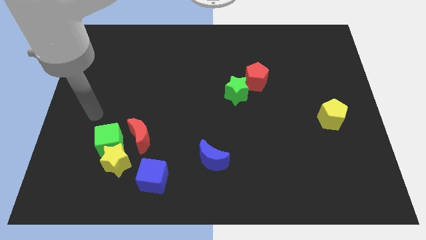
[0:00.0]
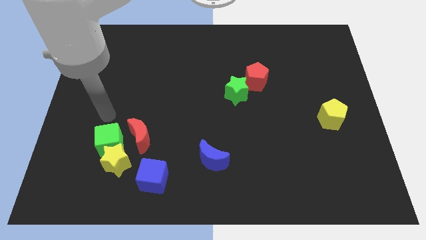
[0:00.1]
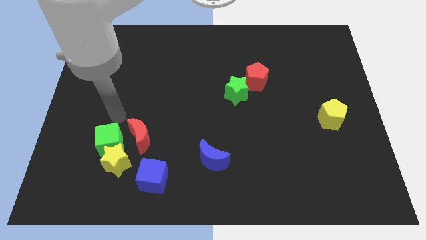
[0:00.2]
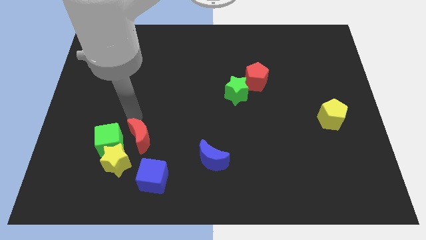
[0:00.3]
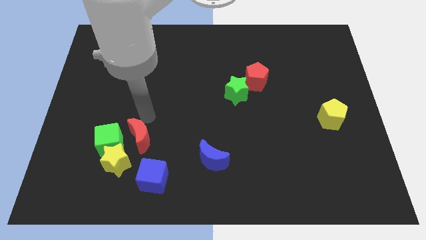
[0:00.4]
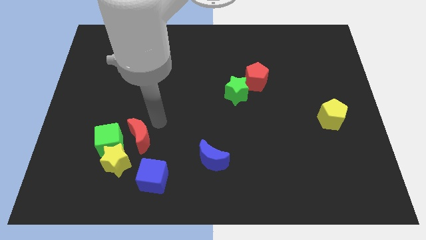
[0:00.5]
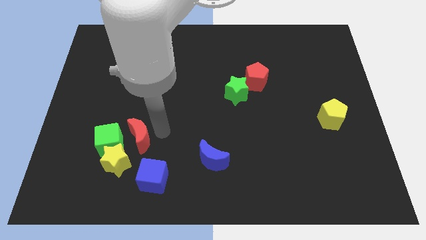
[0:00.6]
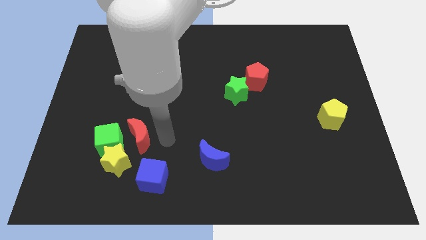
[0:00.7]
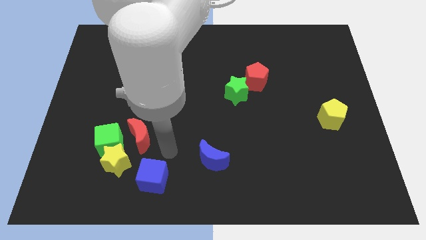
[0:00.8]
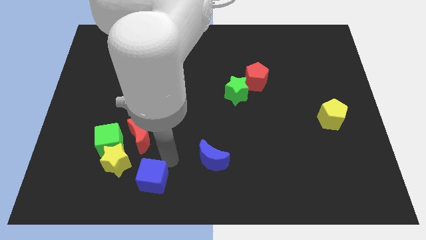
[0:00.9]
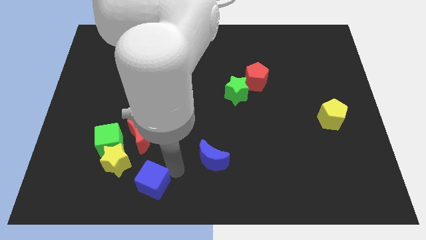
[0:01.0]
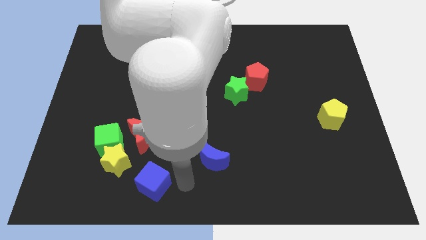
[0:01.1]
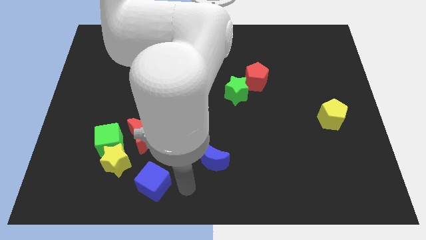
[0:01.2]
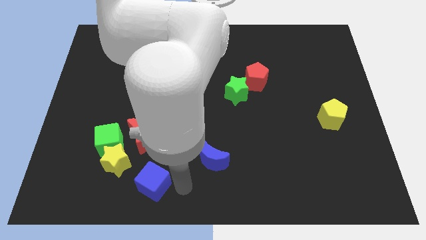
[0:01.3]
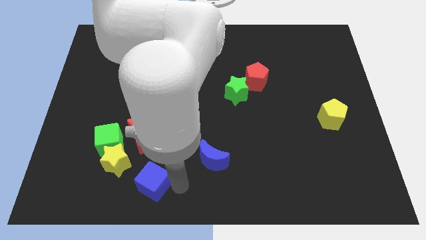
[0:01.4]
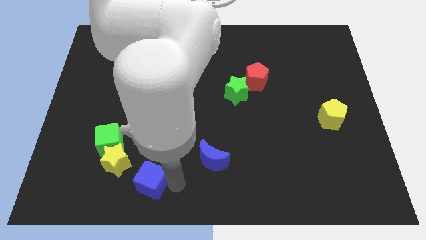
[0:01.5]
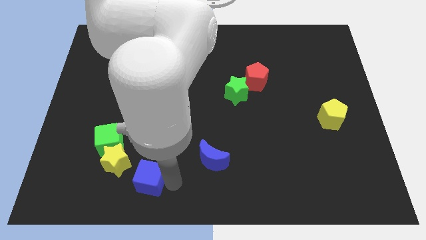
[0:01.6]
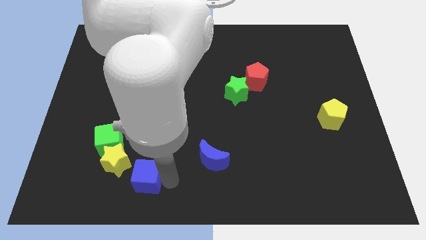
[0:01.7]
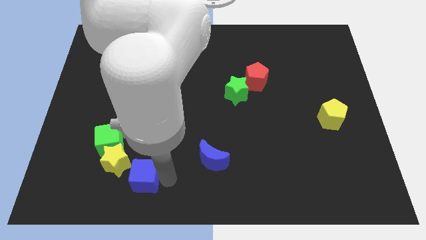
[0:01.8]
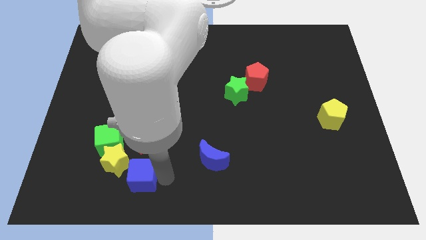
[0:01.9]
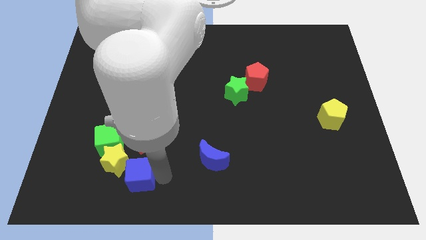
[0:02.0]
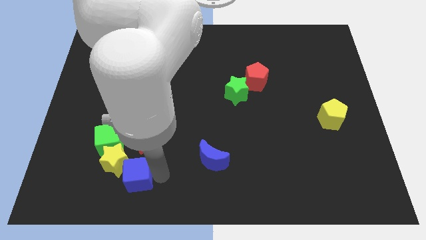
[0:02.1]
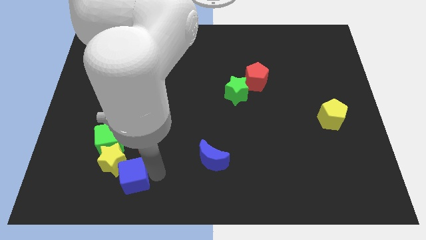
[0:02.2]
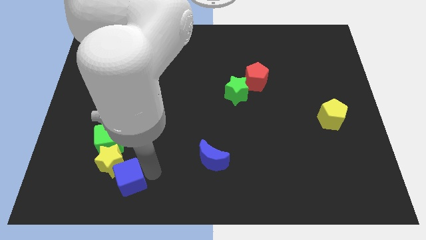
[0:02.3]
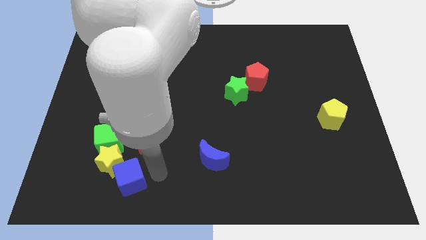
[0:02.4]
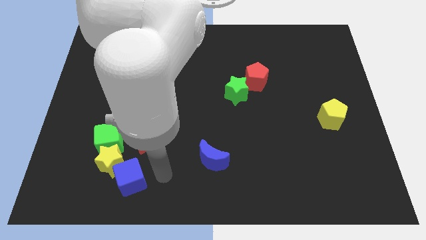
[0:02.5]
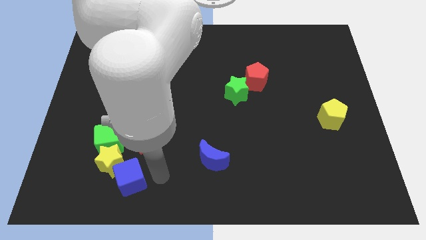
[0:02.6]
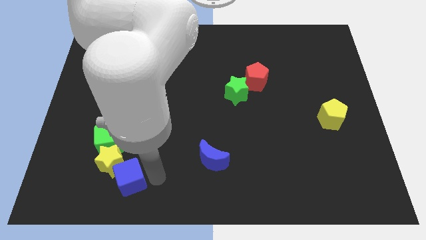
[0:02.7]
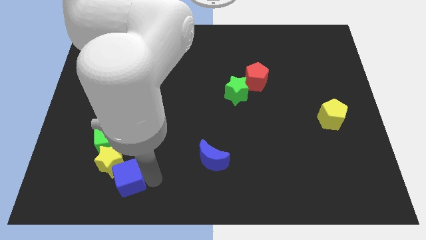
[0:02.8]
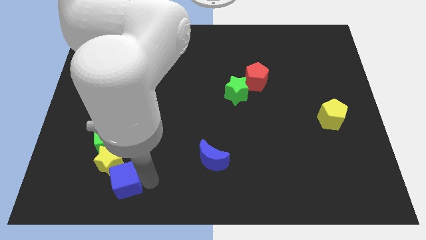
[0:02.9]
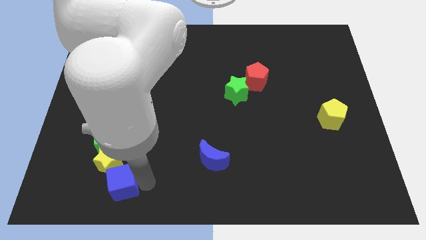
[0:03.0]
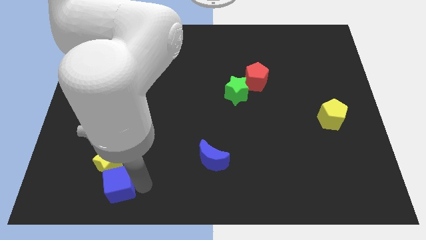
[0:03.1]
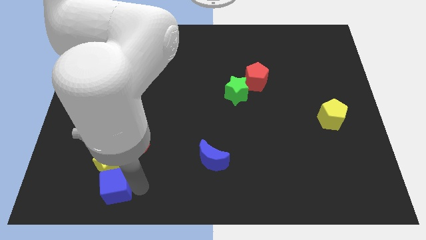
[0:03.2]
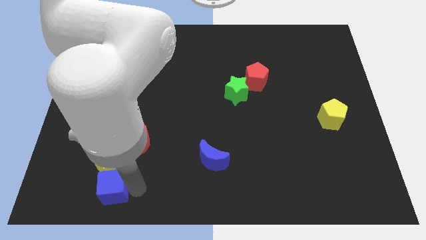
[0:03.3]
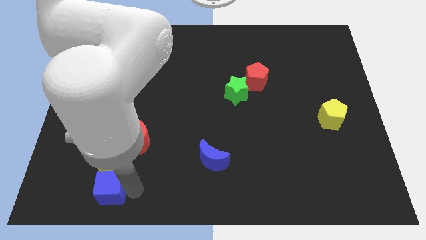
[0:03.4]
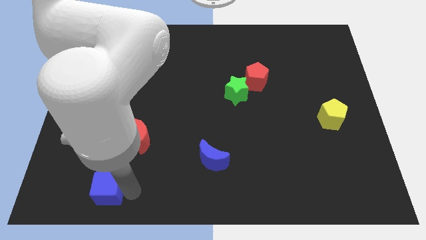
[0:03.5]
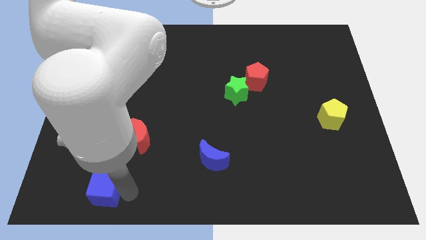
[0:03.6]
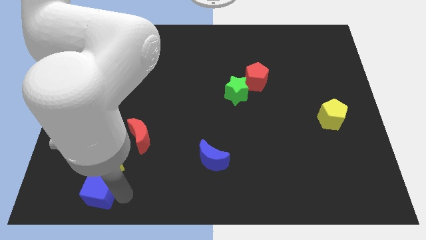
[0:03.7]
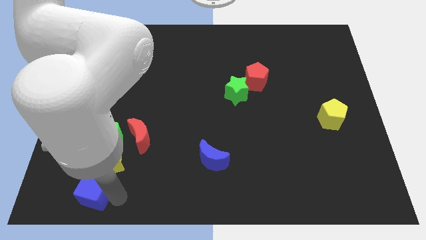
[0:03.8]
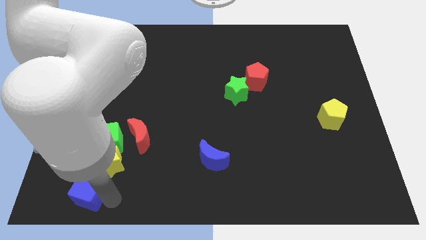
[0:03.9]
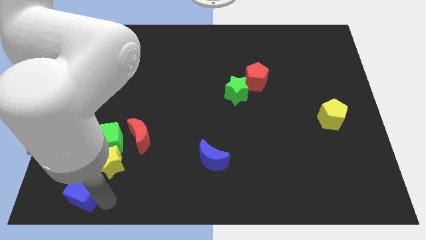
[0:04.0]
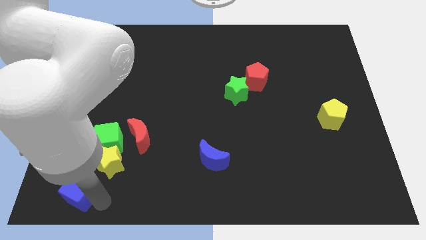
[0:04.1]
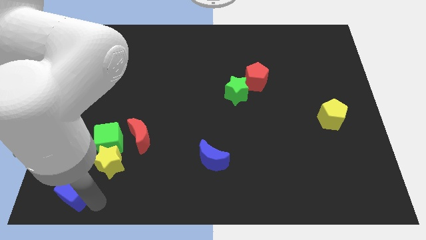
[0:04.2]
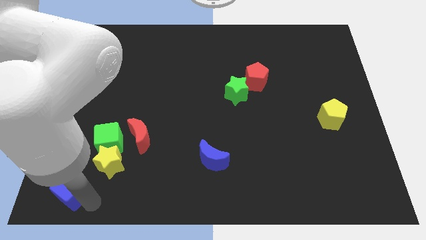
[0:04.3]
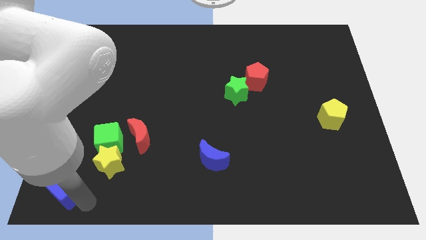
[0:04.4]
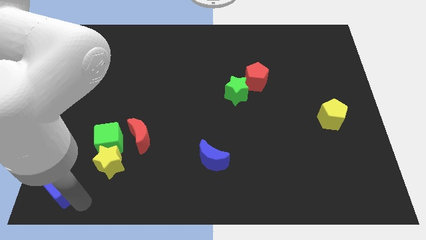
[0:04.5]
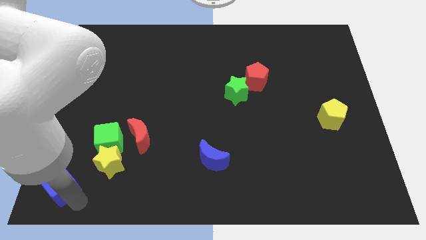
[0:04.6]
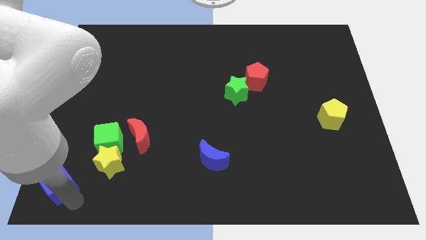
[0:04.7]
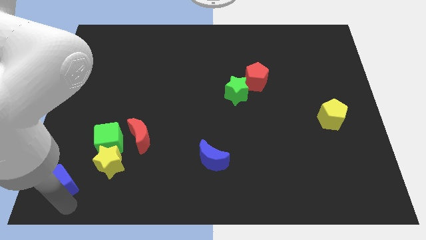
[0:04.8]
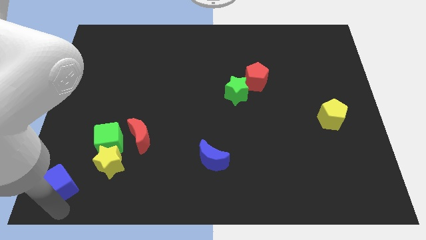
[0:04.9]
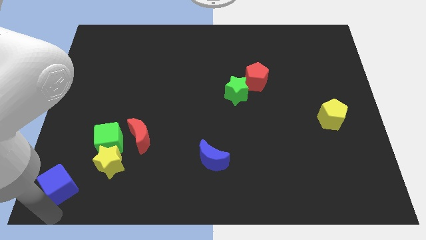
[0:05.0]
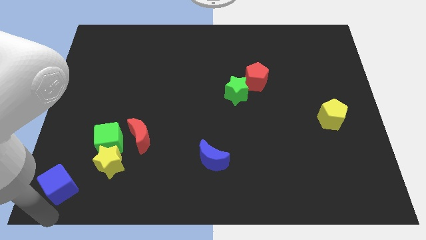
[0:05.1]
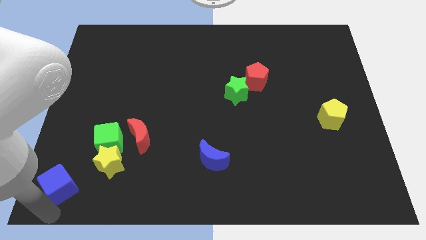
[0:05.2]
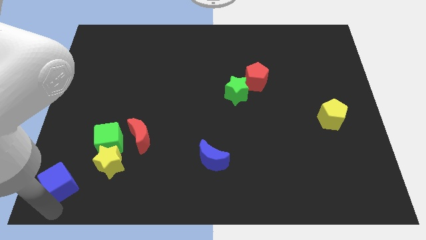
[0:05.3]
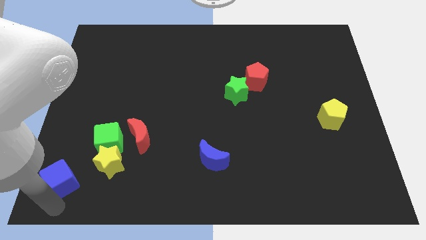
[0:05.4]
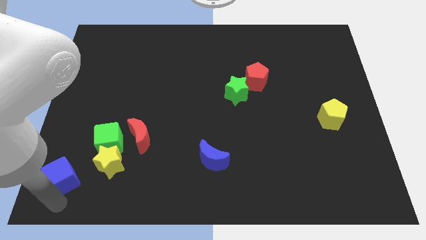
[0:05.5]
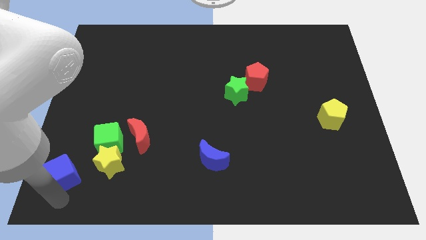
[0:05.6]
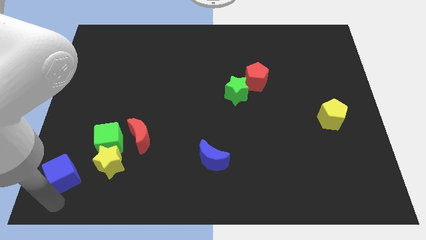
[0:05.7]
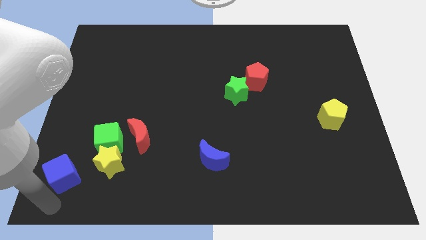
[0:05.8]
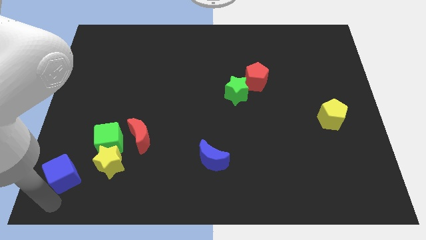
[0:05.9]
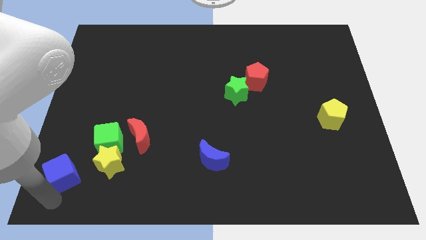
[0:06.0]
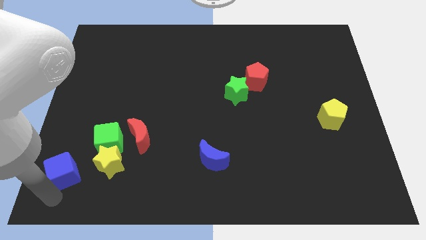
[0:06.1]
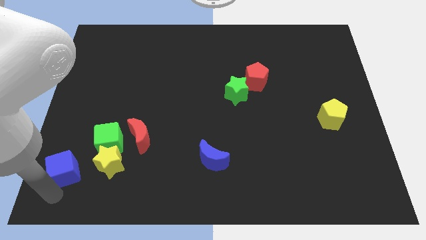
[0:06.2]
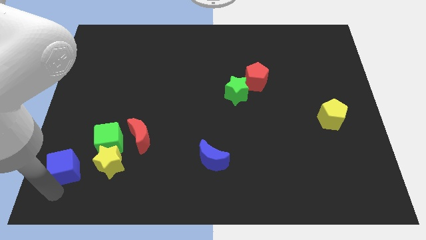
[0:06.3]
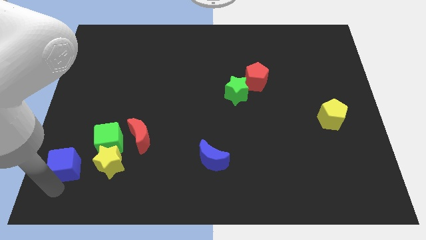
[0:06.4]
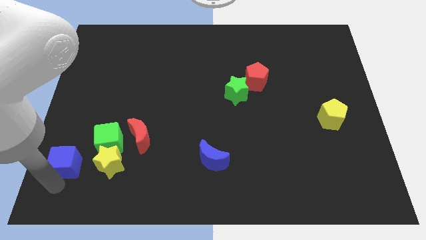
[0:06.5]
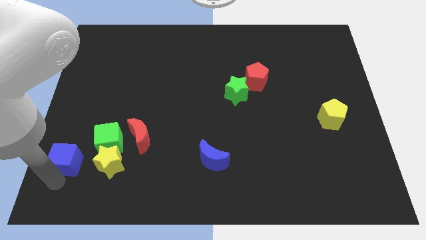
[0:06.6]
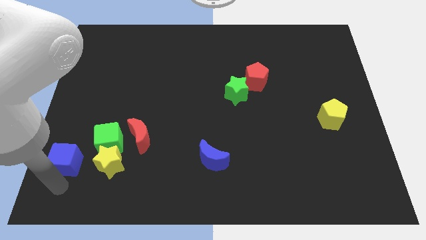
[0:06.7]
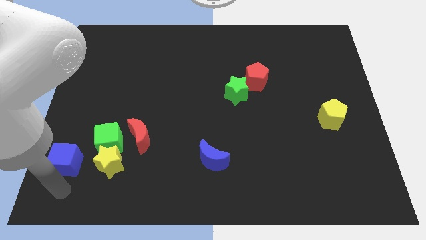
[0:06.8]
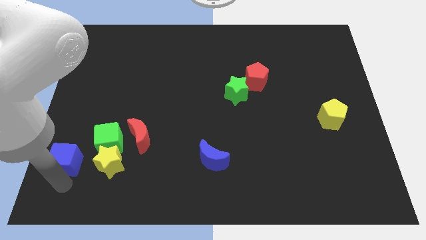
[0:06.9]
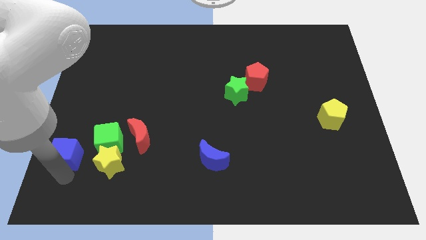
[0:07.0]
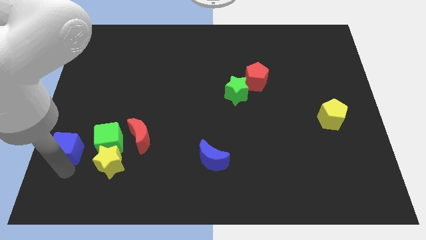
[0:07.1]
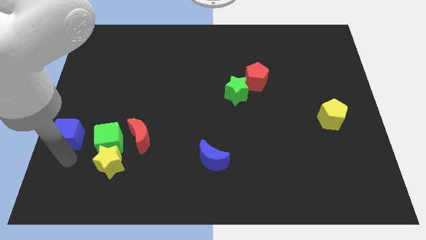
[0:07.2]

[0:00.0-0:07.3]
move the blue cube to the center left
